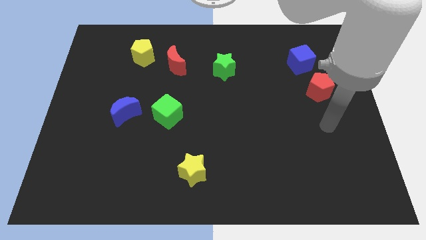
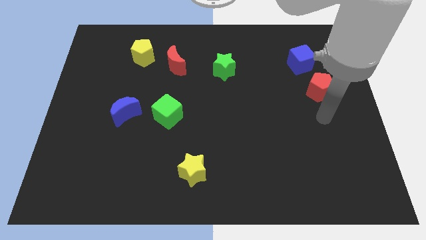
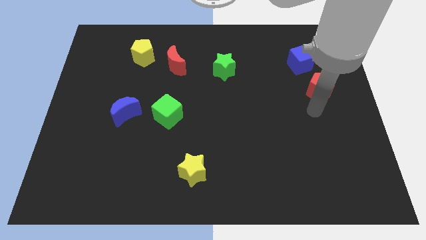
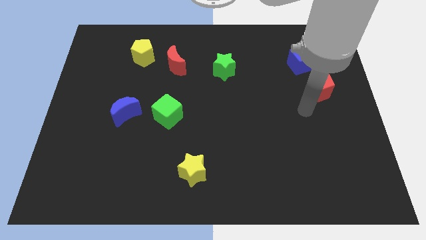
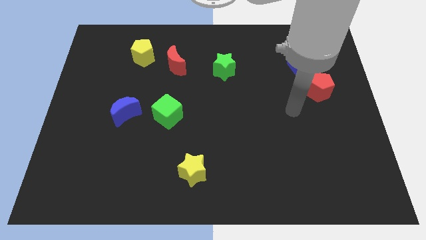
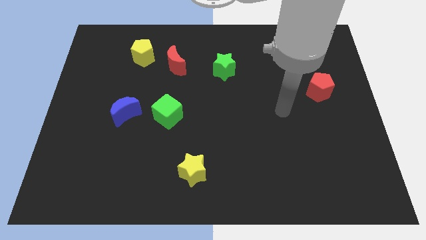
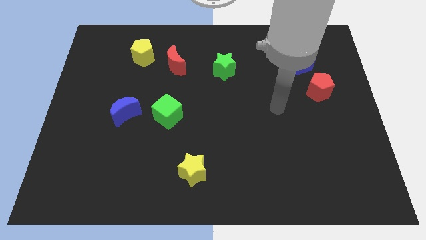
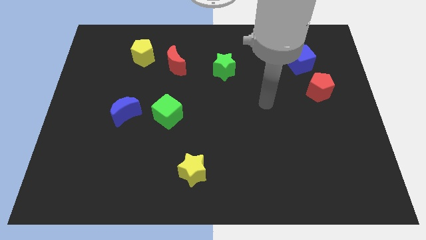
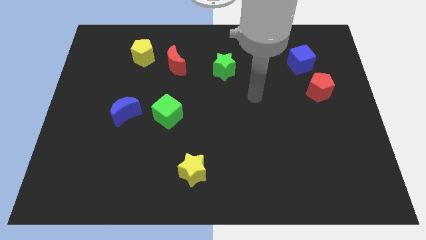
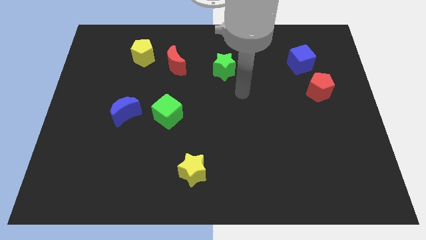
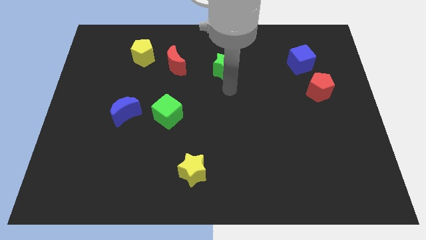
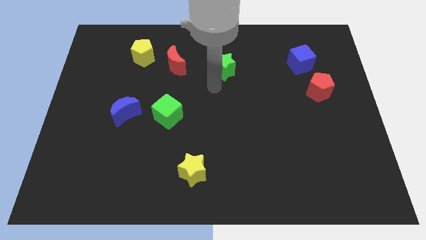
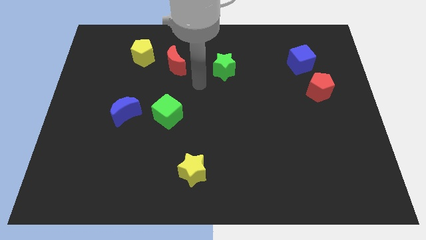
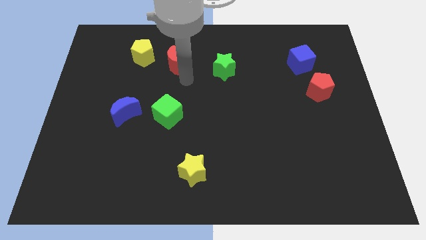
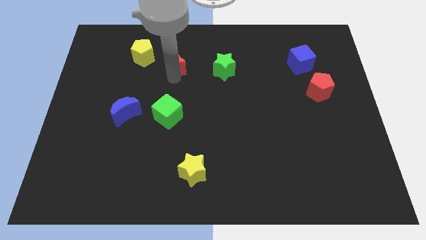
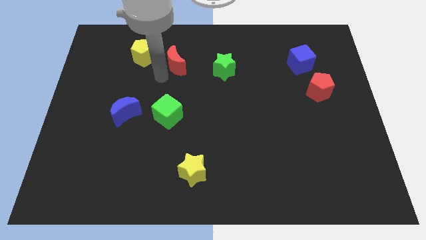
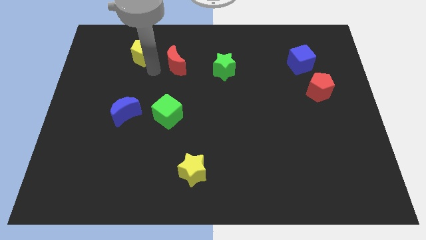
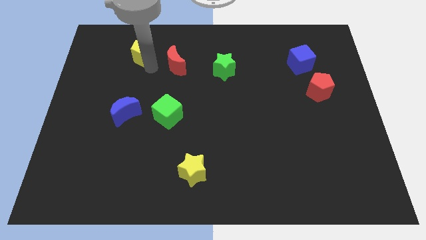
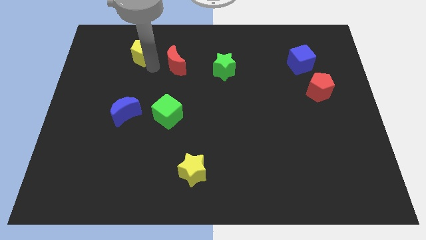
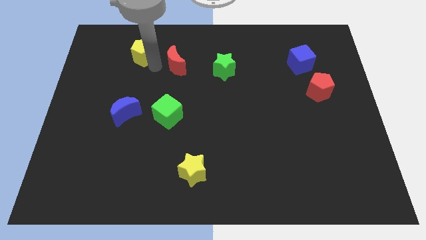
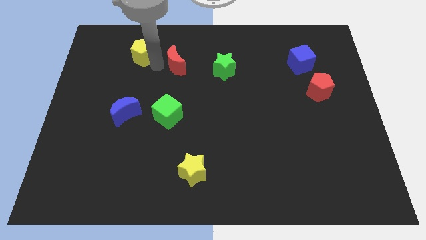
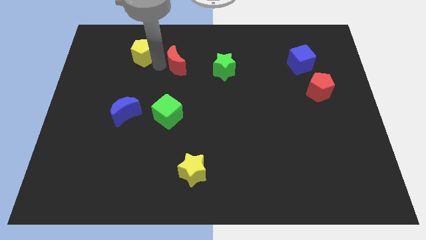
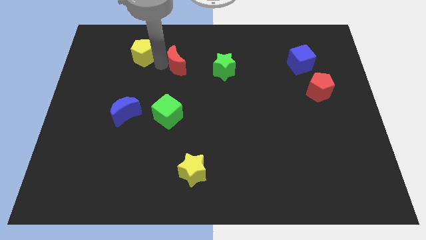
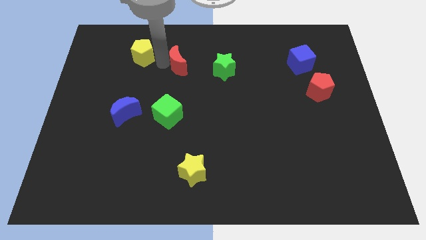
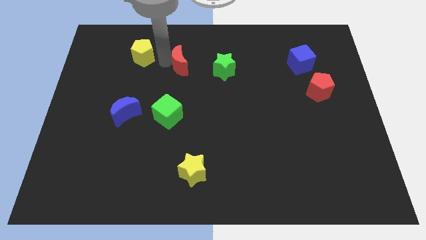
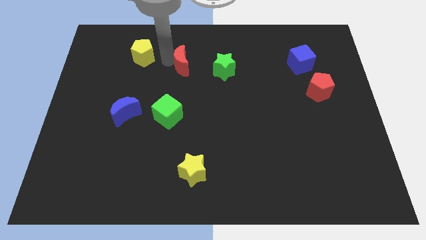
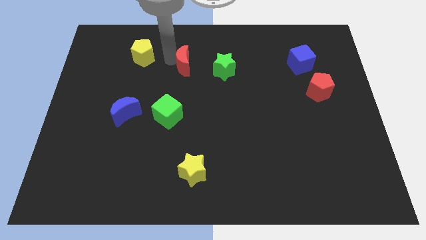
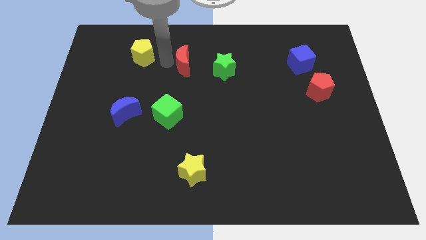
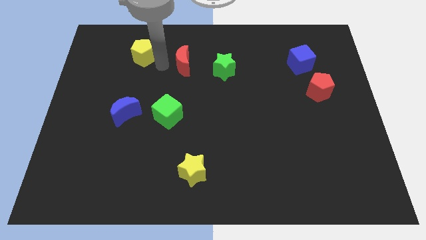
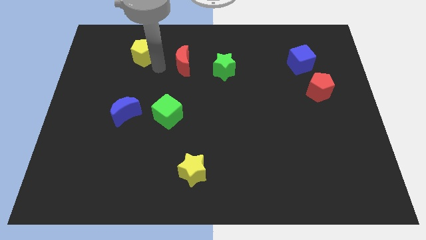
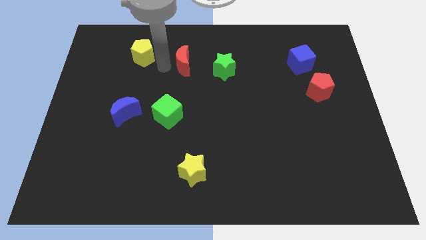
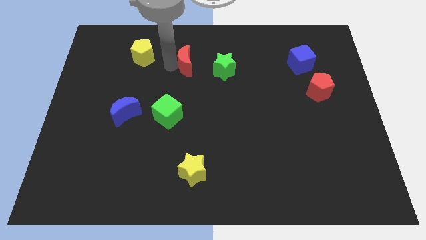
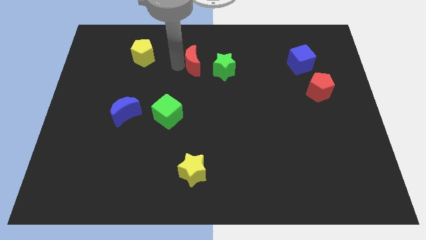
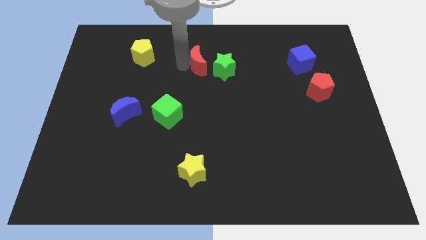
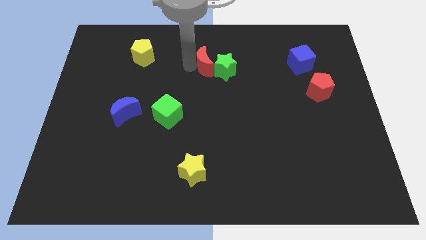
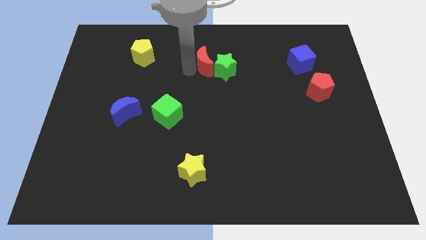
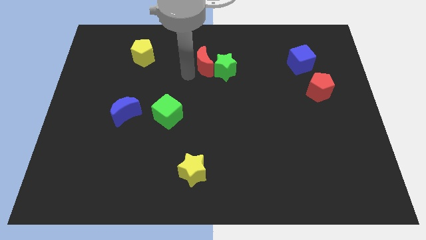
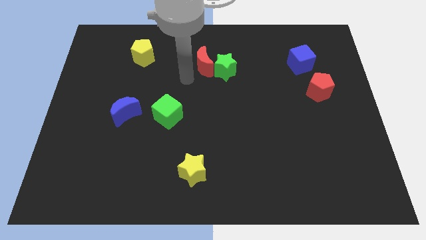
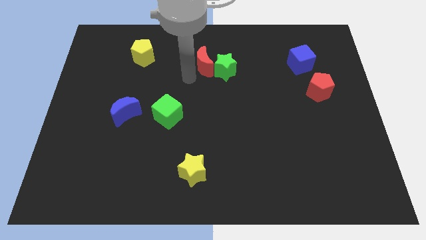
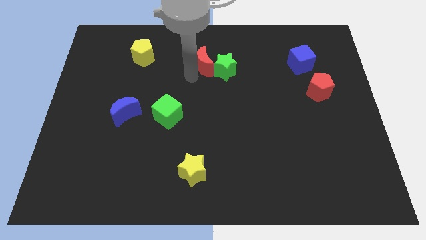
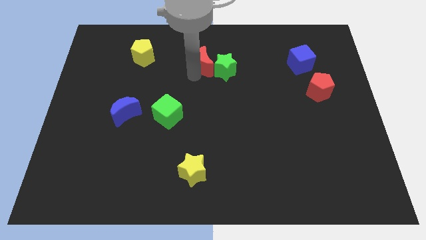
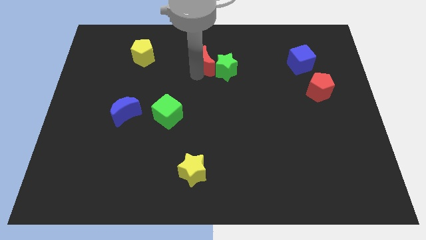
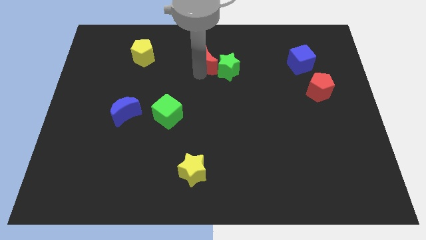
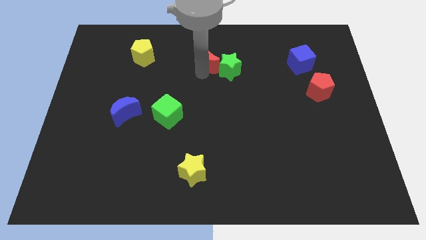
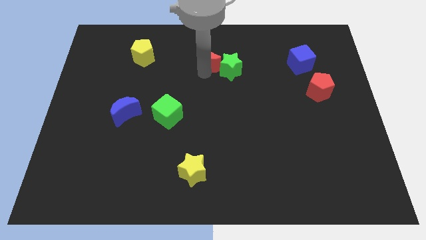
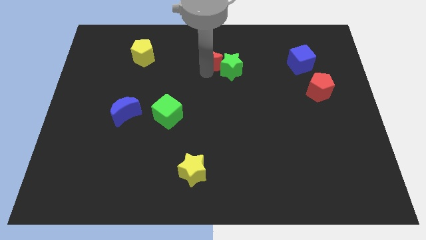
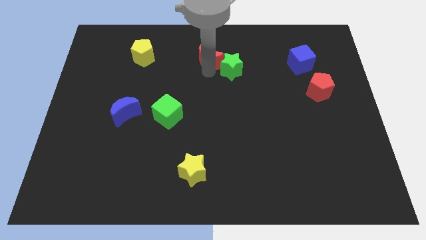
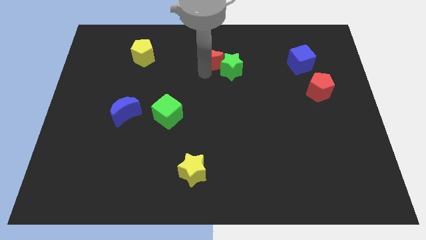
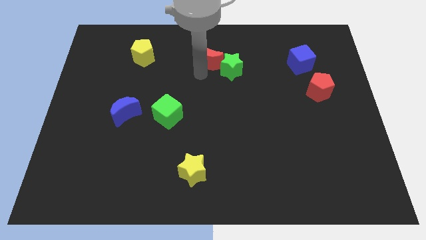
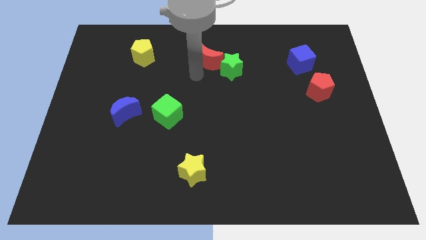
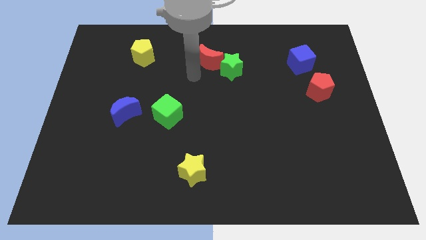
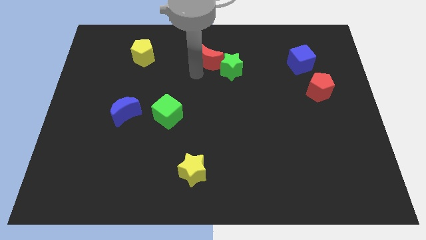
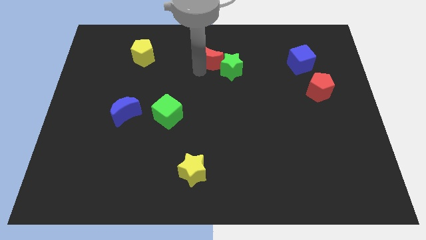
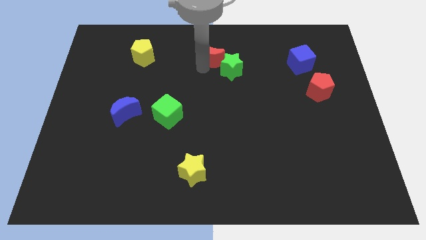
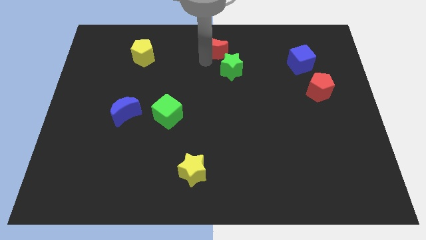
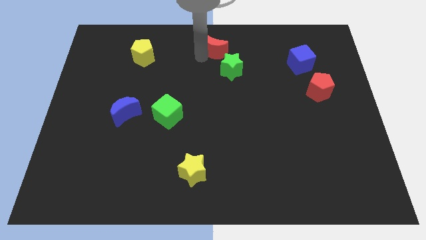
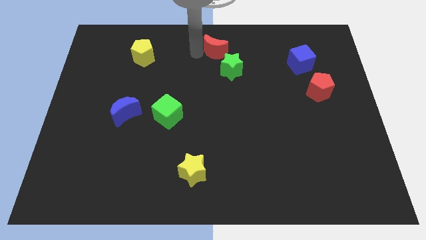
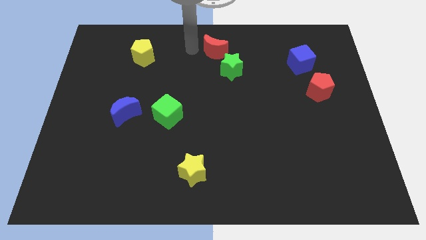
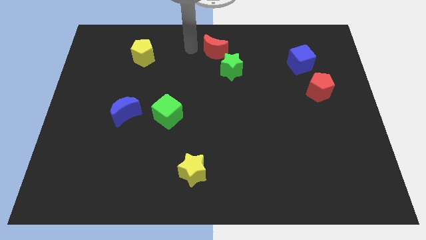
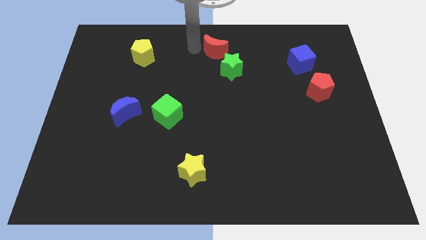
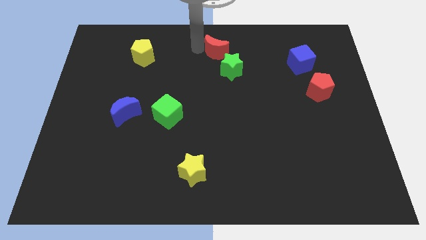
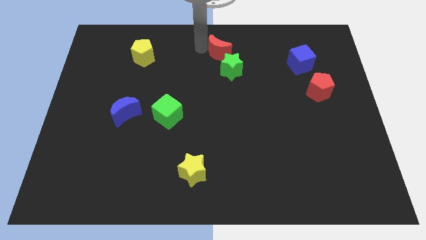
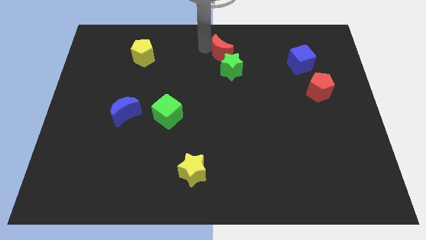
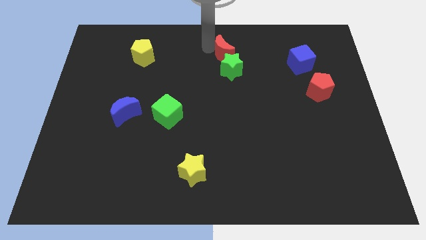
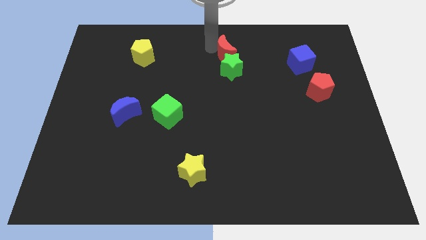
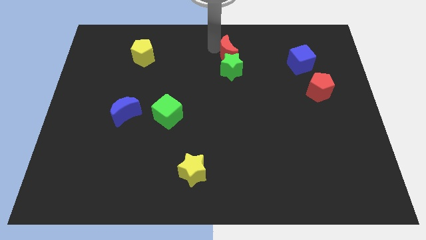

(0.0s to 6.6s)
move the red moon to the top right of the green star

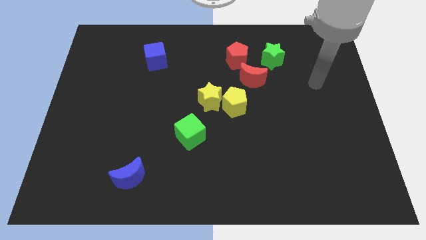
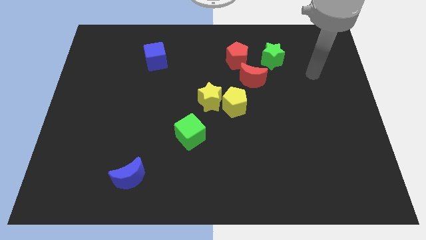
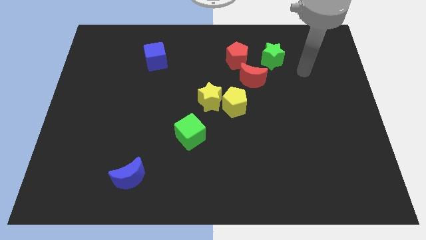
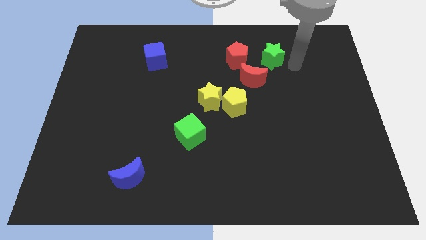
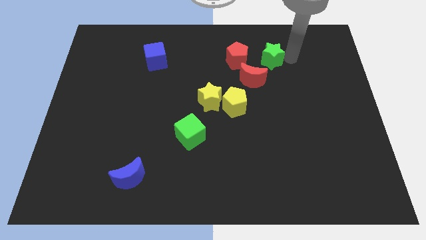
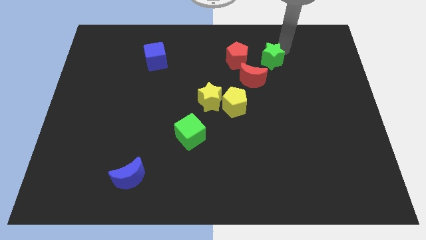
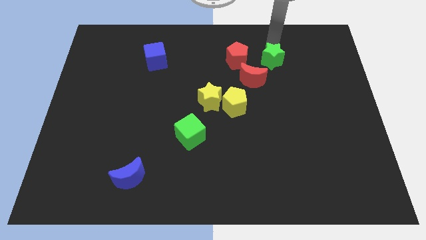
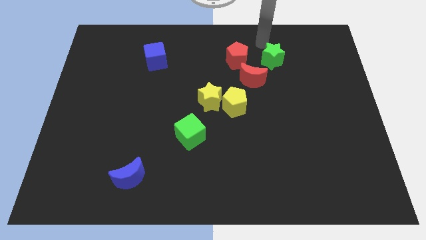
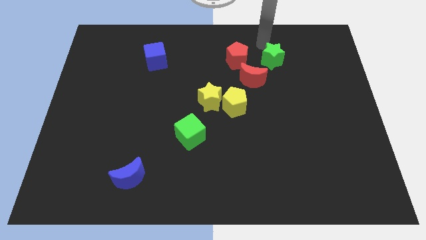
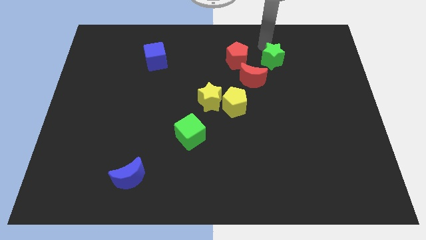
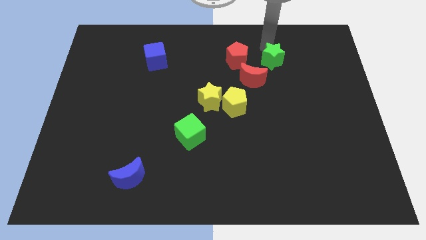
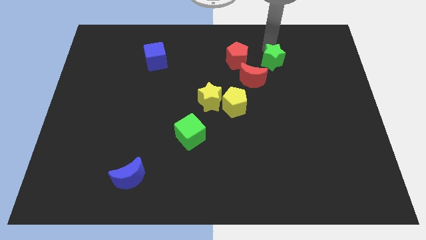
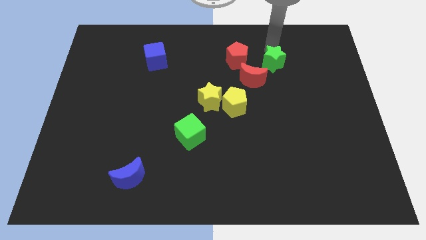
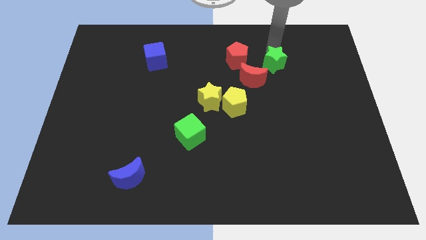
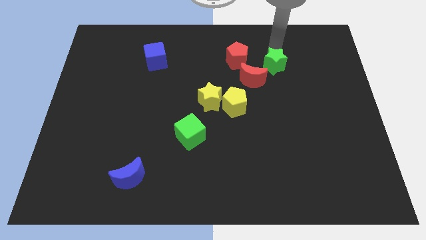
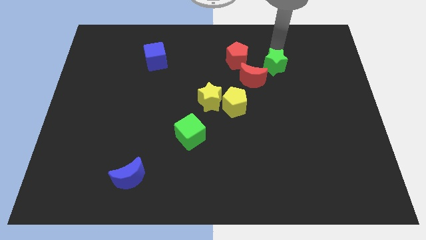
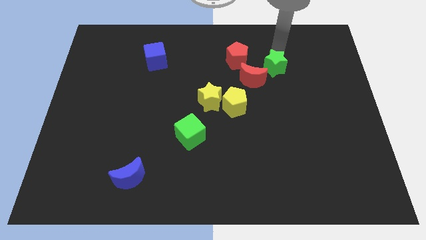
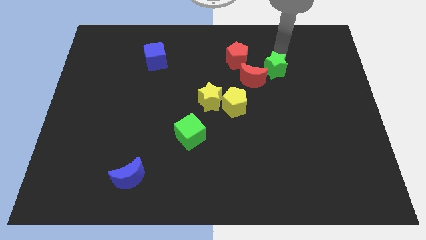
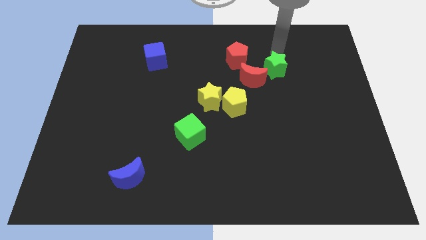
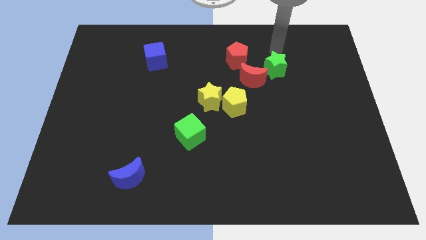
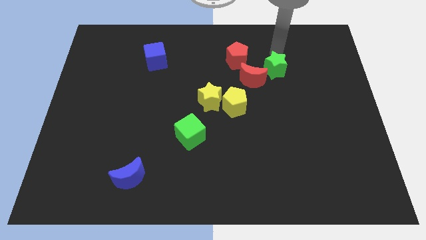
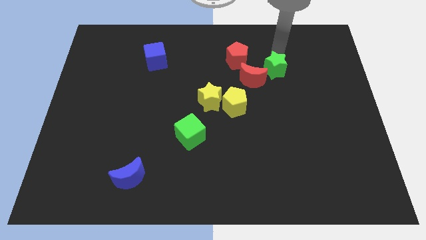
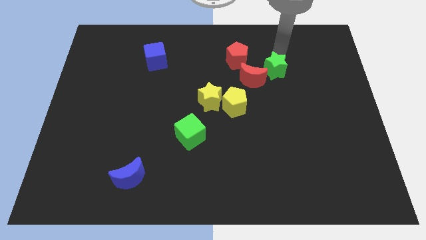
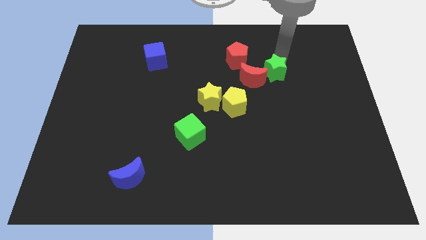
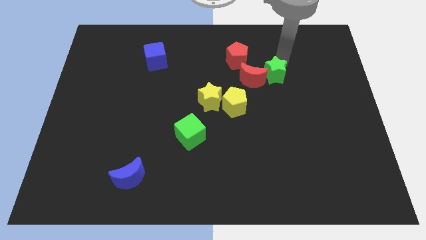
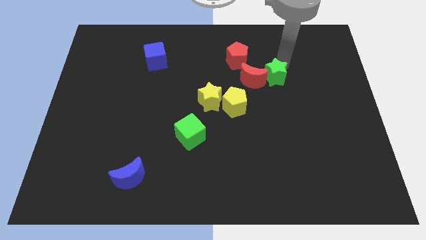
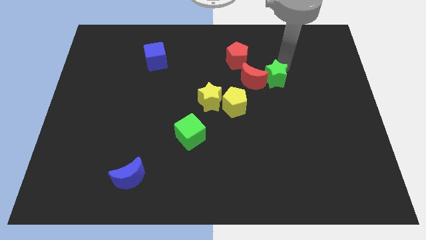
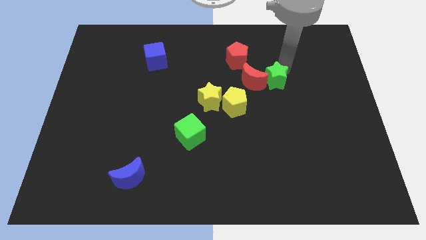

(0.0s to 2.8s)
move the green star diagonally down and to the right of the red moon
